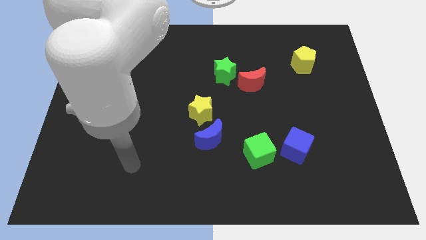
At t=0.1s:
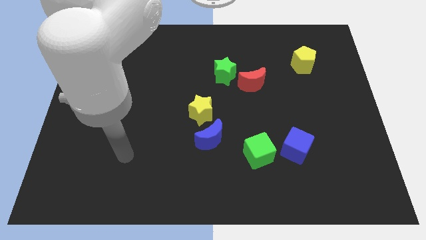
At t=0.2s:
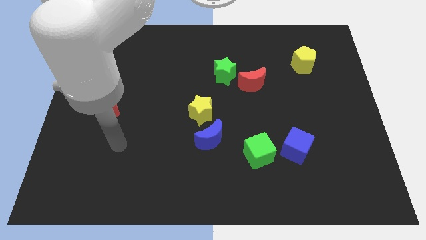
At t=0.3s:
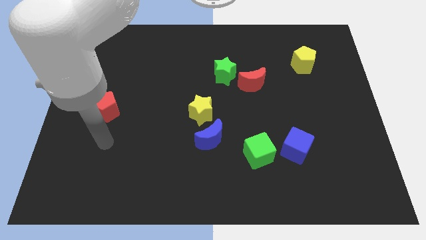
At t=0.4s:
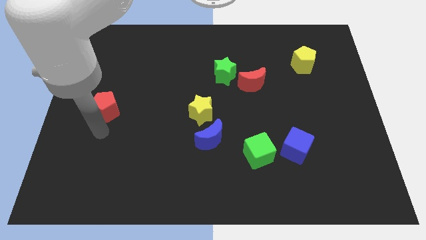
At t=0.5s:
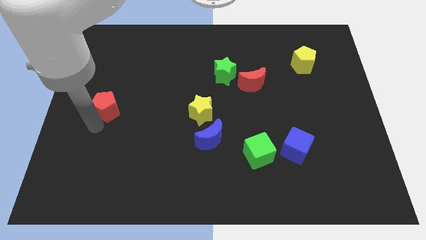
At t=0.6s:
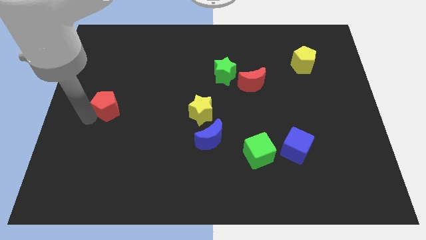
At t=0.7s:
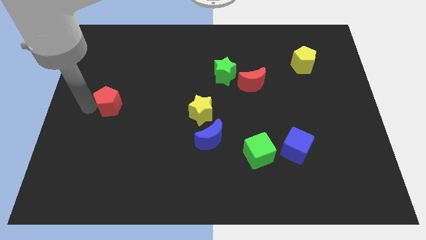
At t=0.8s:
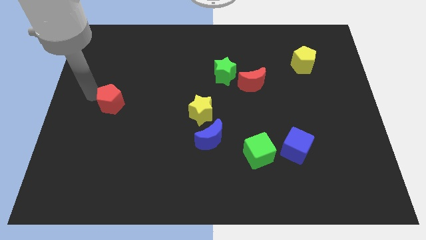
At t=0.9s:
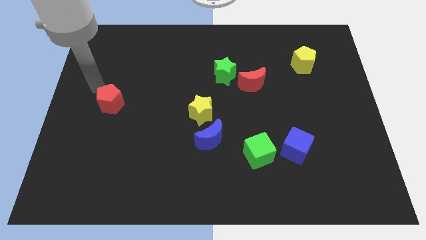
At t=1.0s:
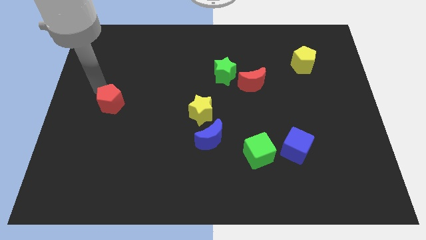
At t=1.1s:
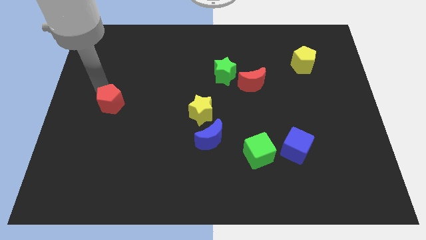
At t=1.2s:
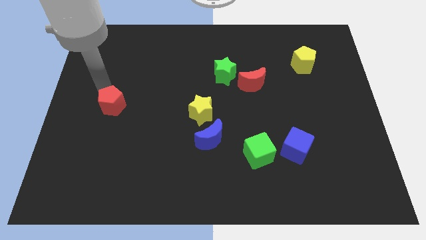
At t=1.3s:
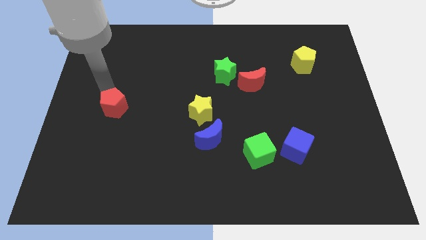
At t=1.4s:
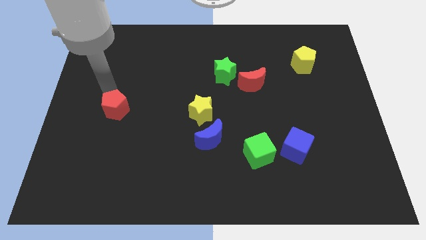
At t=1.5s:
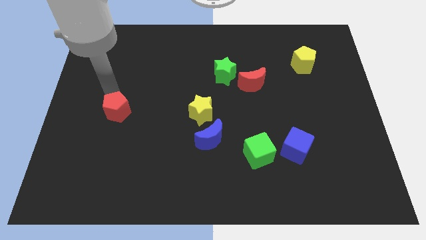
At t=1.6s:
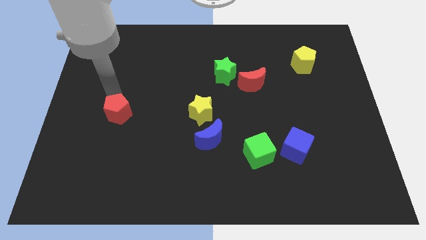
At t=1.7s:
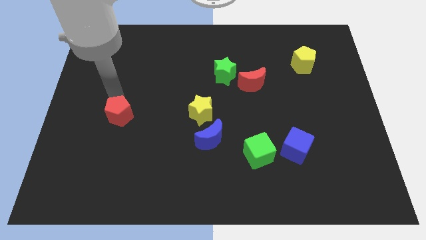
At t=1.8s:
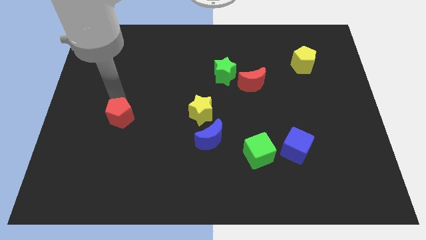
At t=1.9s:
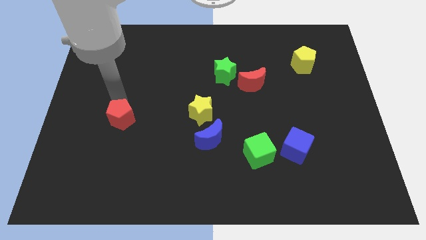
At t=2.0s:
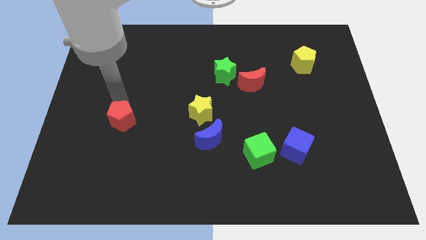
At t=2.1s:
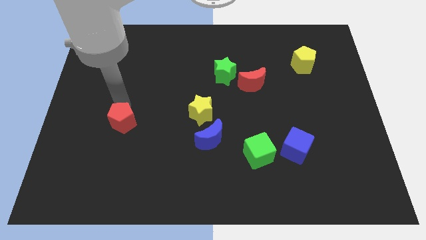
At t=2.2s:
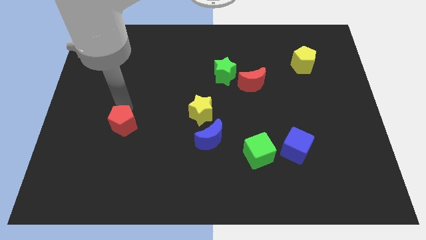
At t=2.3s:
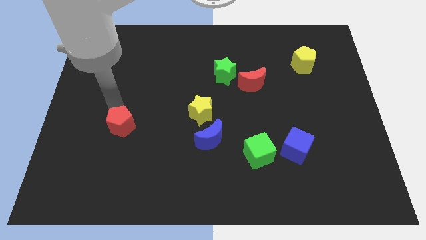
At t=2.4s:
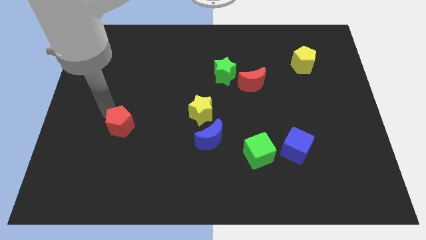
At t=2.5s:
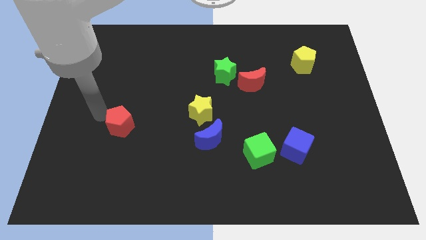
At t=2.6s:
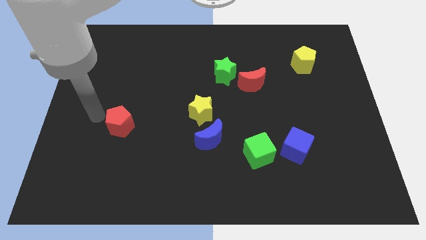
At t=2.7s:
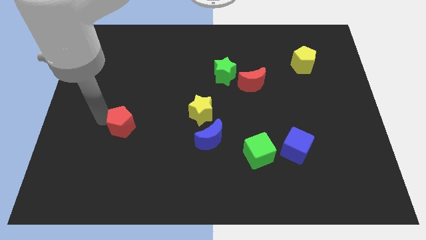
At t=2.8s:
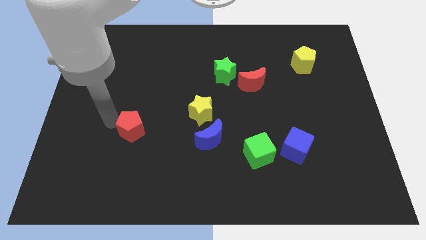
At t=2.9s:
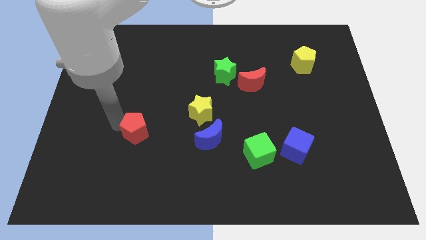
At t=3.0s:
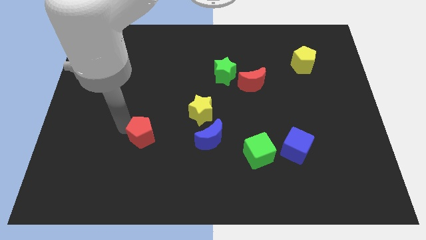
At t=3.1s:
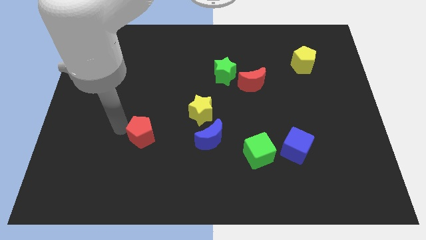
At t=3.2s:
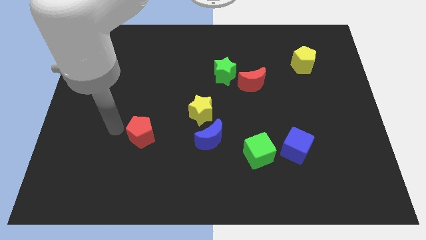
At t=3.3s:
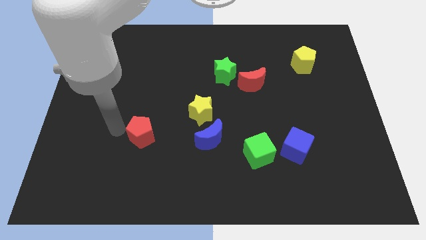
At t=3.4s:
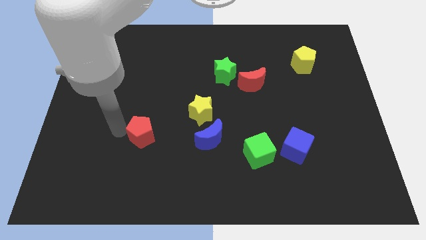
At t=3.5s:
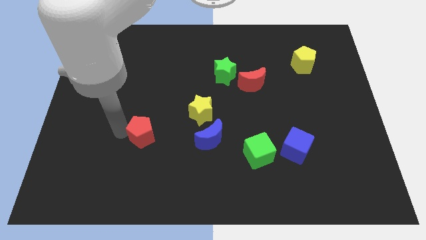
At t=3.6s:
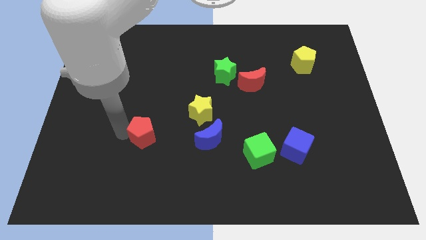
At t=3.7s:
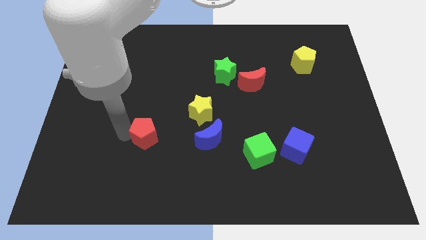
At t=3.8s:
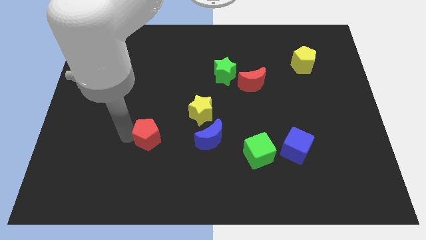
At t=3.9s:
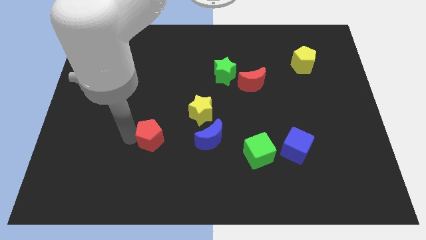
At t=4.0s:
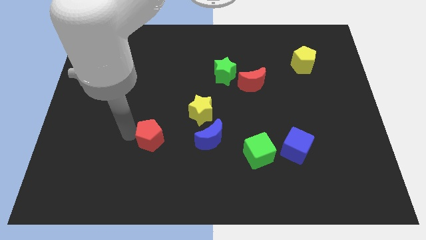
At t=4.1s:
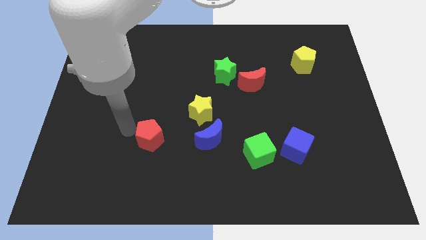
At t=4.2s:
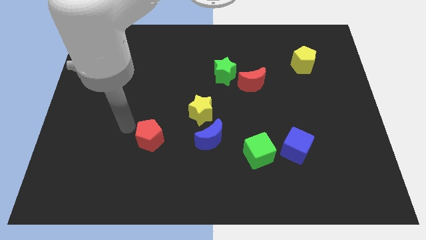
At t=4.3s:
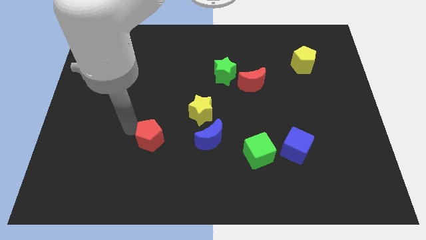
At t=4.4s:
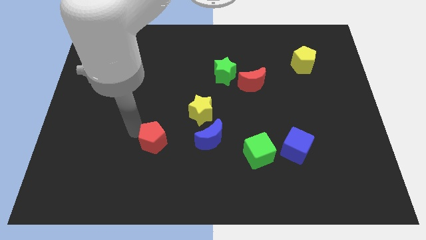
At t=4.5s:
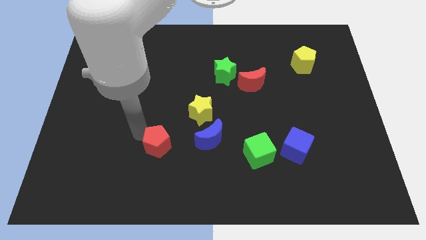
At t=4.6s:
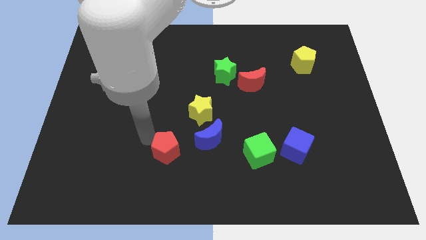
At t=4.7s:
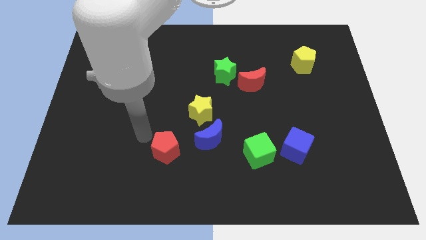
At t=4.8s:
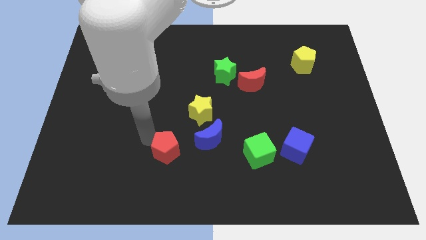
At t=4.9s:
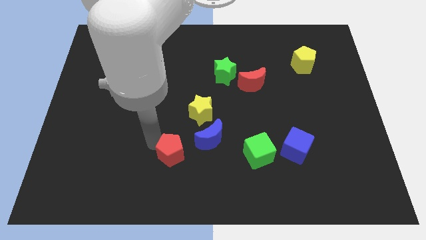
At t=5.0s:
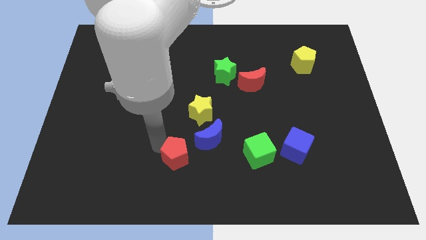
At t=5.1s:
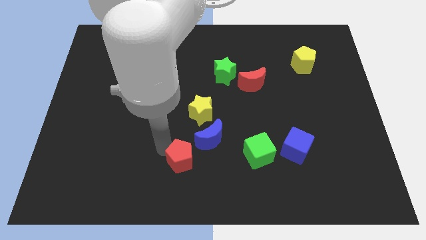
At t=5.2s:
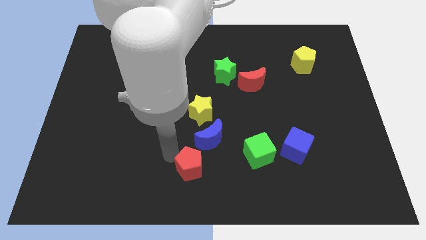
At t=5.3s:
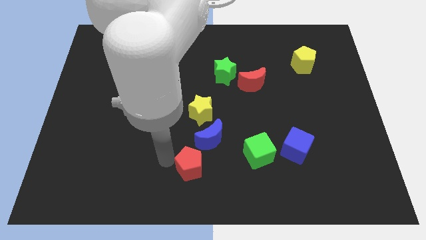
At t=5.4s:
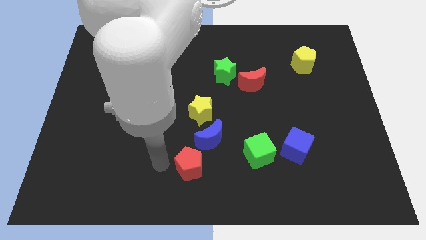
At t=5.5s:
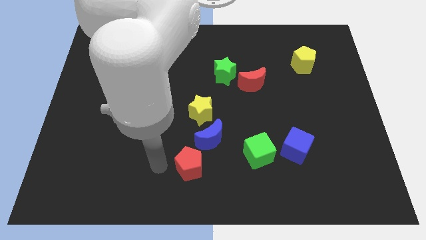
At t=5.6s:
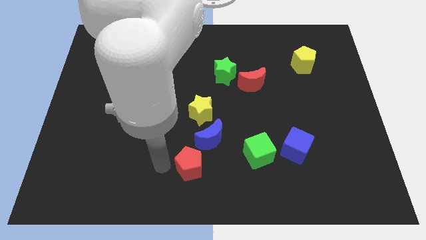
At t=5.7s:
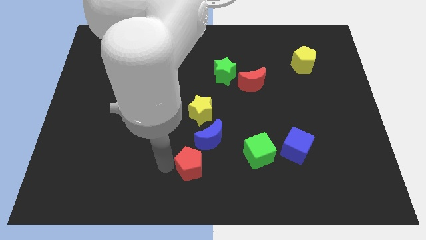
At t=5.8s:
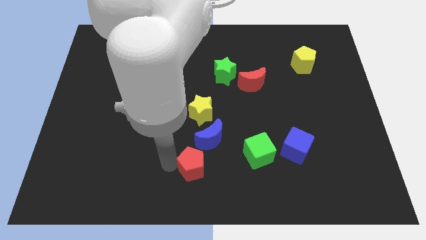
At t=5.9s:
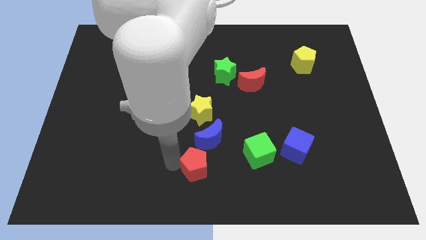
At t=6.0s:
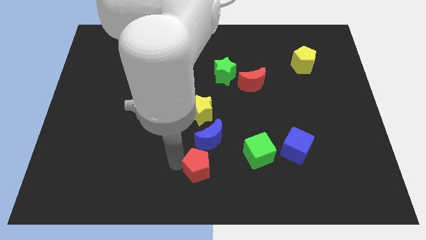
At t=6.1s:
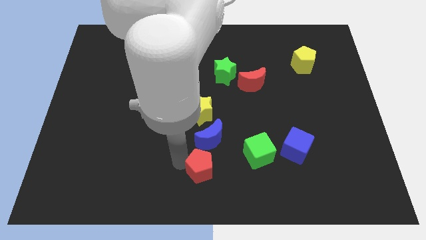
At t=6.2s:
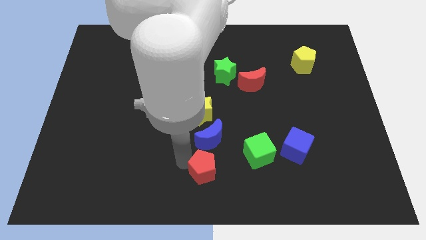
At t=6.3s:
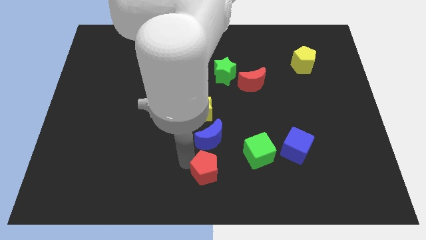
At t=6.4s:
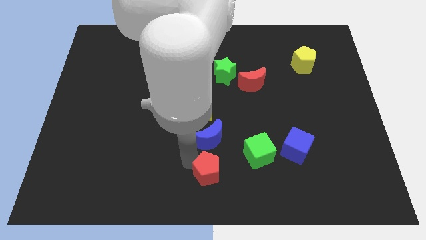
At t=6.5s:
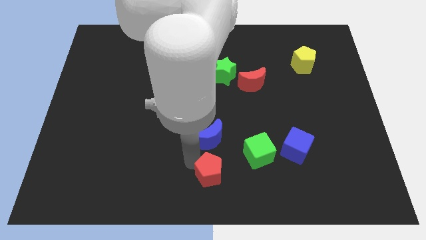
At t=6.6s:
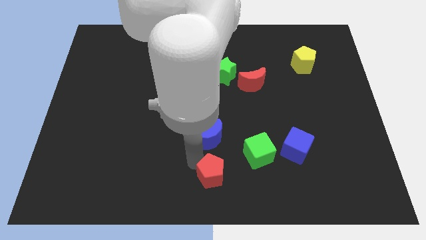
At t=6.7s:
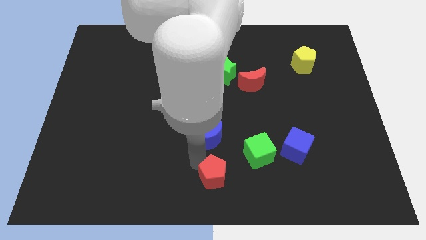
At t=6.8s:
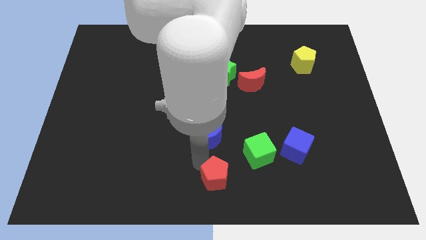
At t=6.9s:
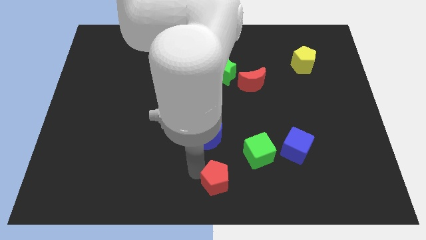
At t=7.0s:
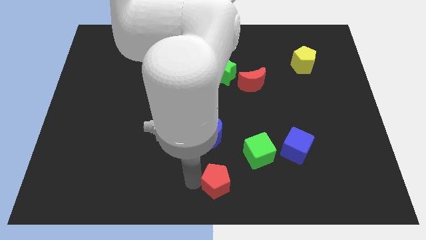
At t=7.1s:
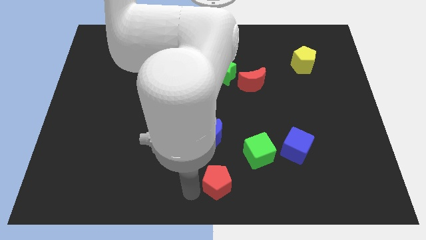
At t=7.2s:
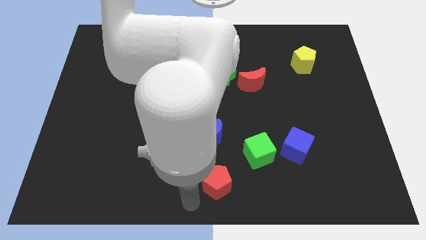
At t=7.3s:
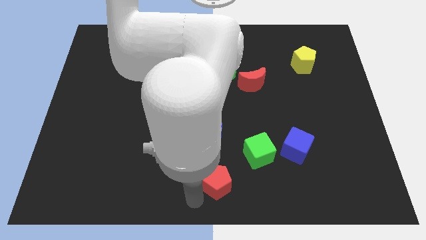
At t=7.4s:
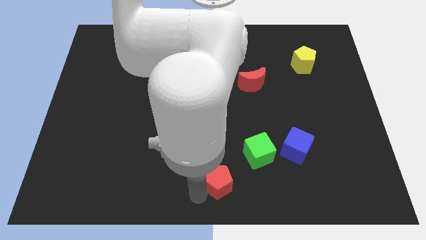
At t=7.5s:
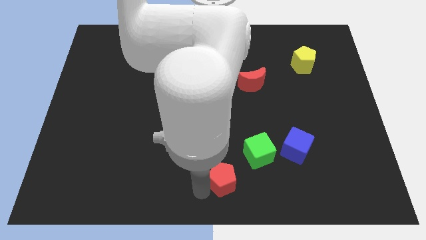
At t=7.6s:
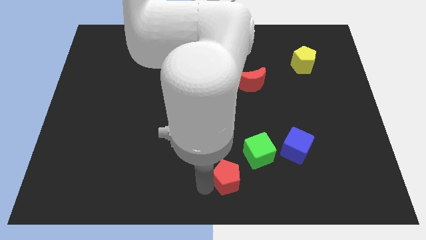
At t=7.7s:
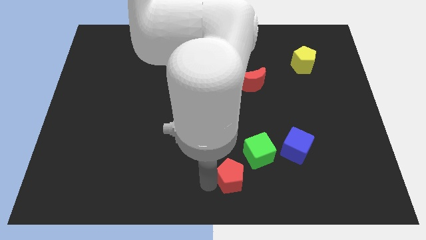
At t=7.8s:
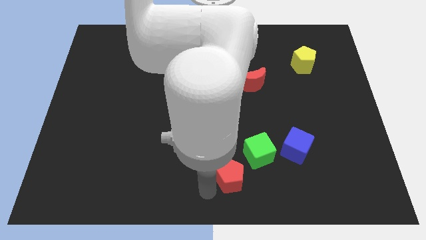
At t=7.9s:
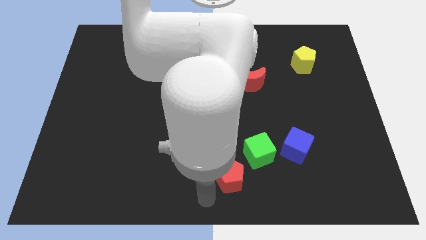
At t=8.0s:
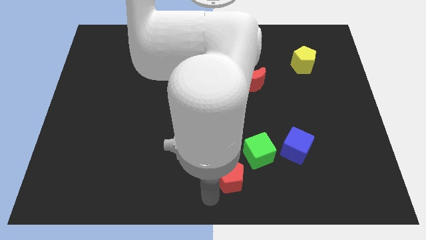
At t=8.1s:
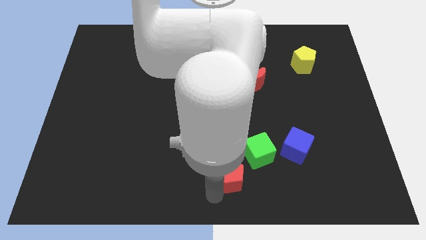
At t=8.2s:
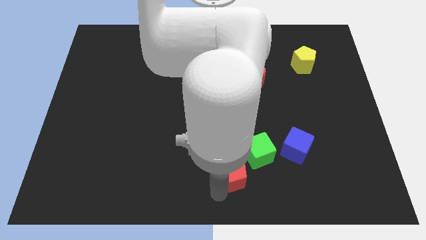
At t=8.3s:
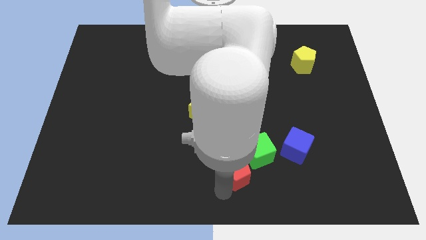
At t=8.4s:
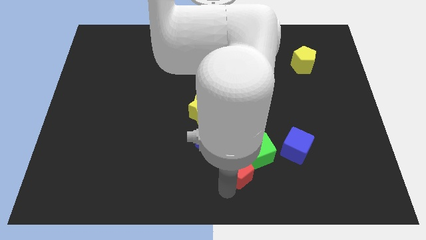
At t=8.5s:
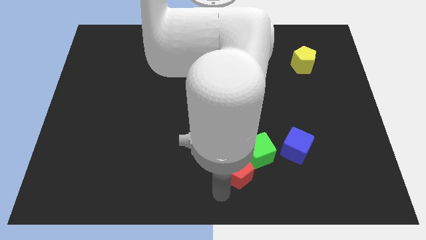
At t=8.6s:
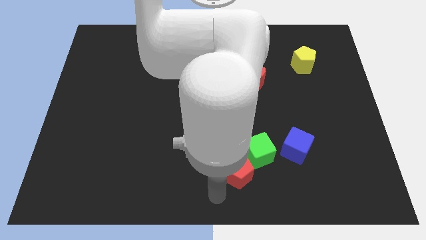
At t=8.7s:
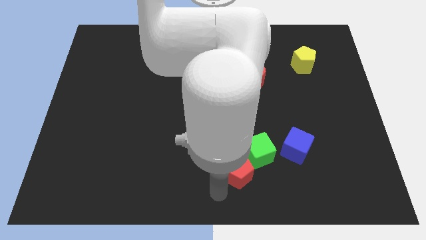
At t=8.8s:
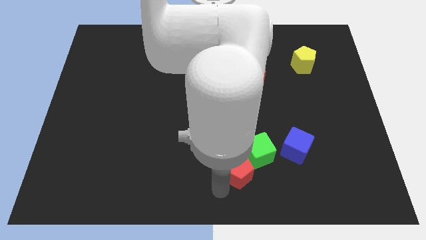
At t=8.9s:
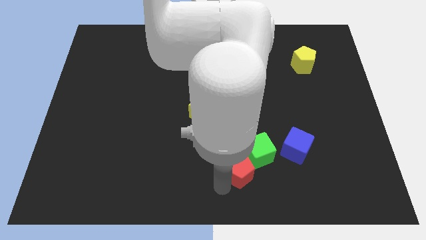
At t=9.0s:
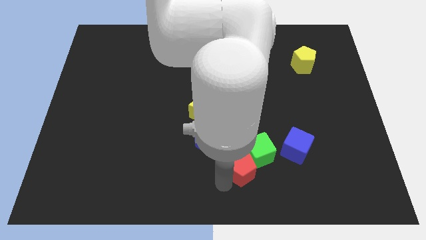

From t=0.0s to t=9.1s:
push the red pentagon close to the green cube
